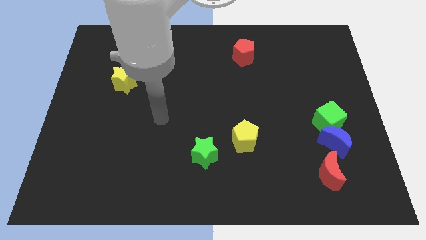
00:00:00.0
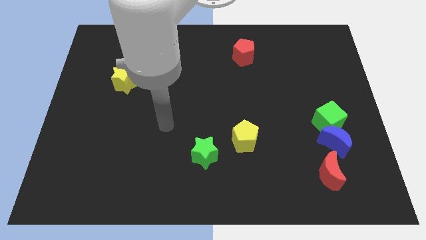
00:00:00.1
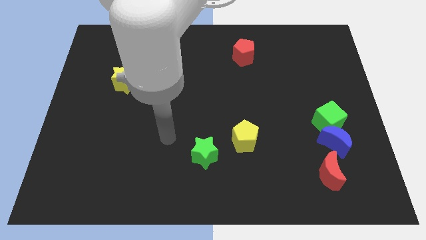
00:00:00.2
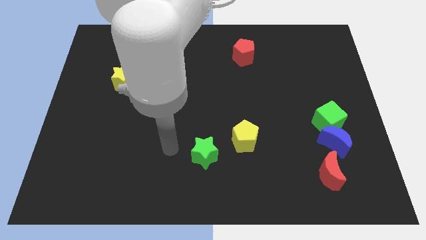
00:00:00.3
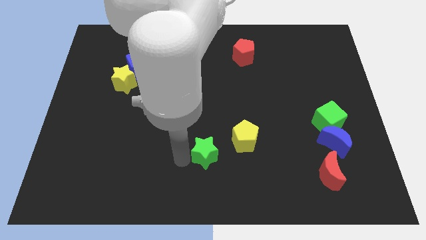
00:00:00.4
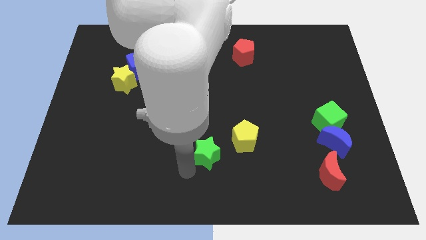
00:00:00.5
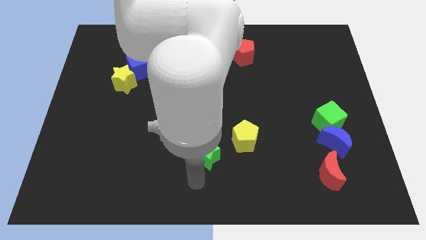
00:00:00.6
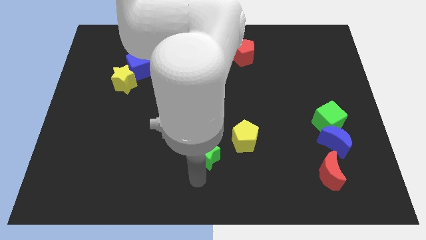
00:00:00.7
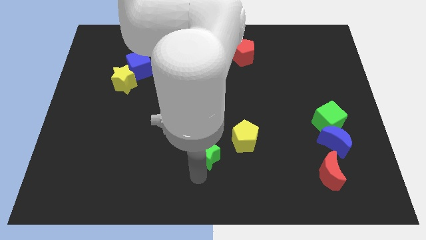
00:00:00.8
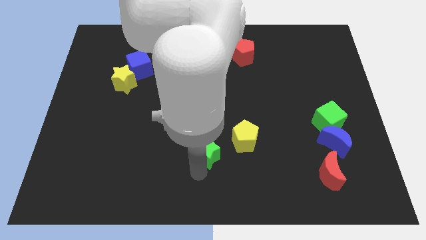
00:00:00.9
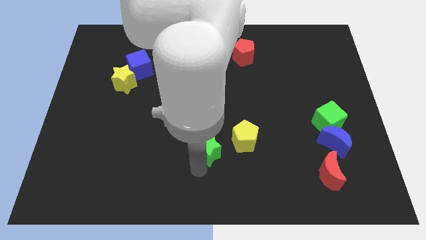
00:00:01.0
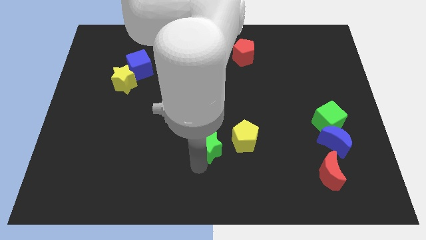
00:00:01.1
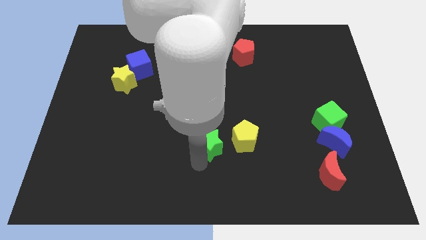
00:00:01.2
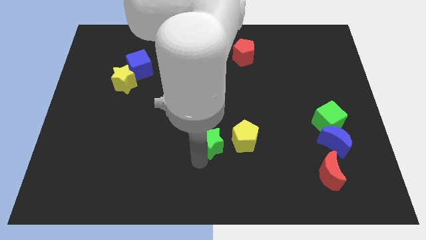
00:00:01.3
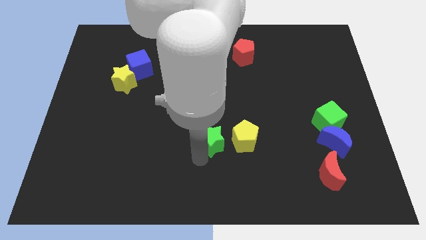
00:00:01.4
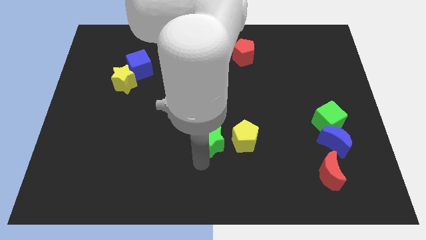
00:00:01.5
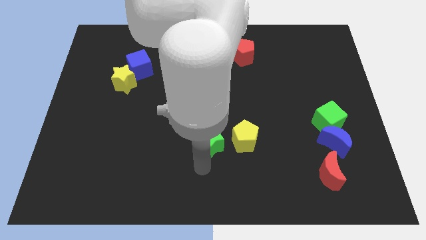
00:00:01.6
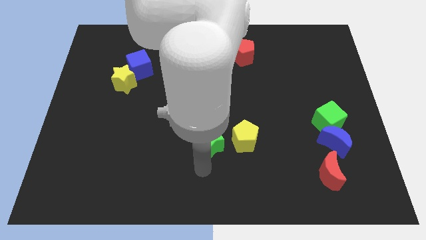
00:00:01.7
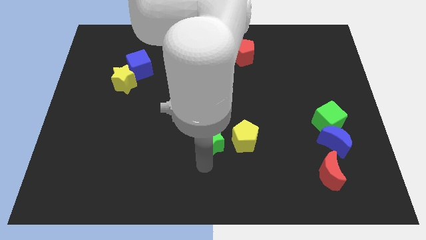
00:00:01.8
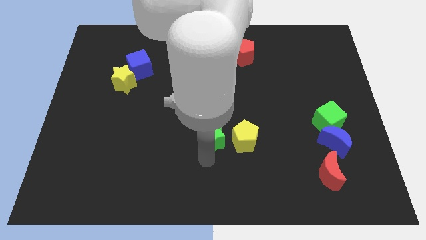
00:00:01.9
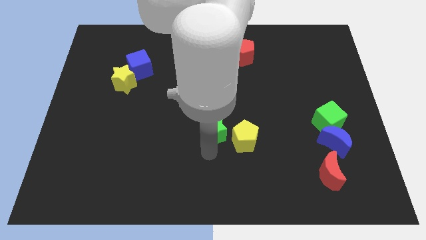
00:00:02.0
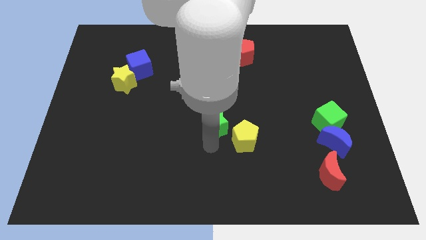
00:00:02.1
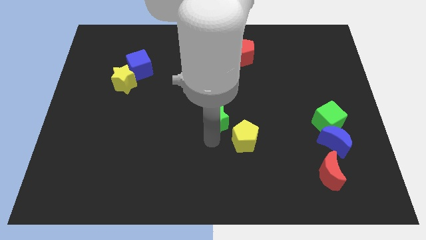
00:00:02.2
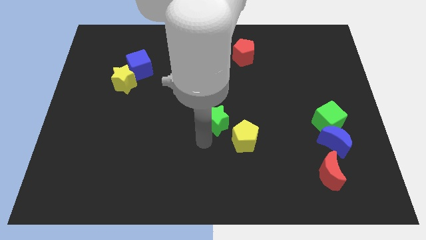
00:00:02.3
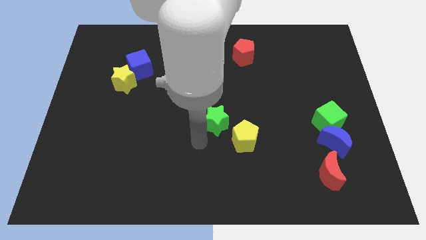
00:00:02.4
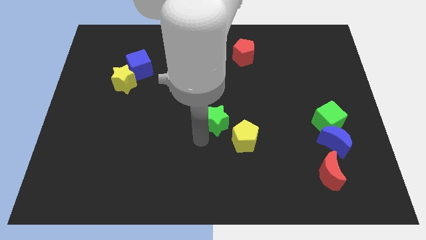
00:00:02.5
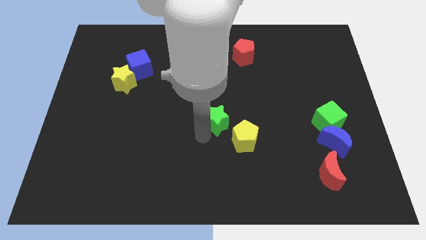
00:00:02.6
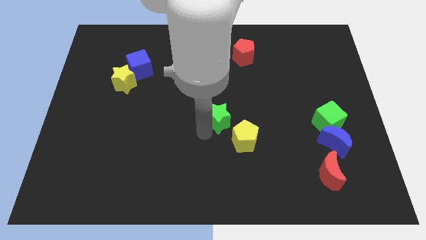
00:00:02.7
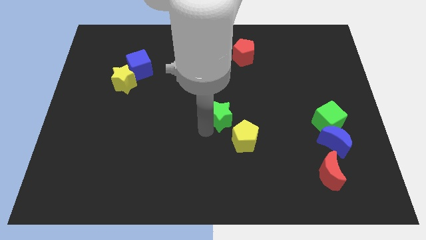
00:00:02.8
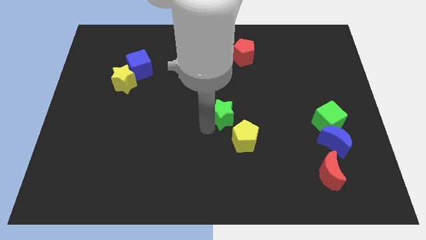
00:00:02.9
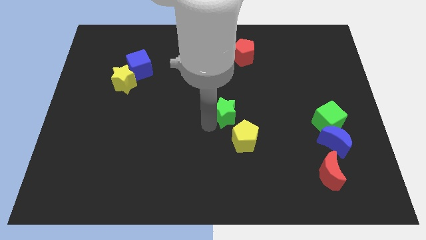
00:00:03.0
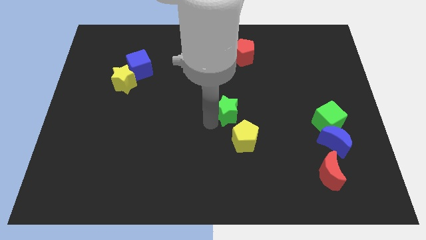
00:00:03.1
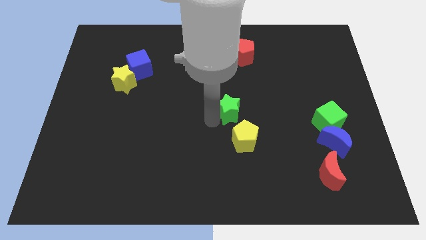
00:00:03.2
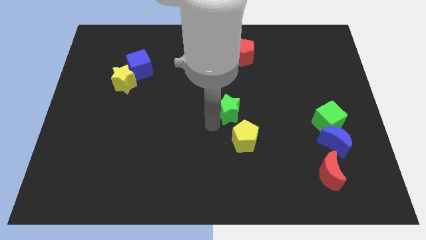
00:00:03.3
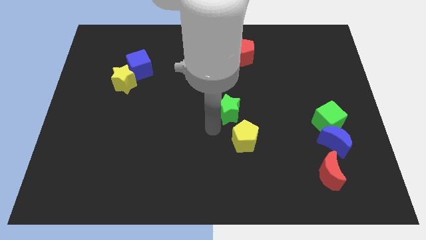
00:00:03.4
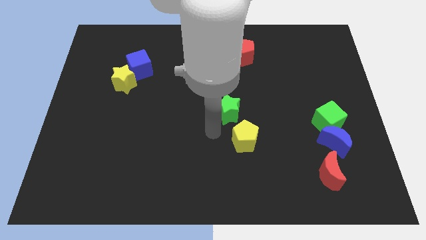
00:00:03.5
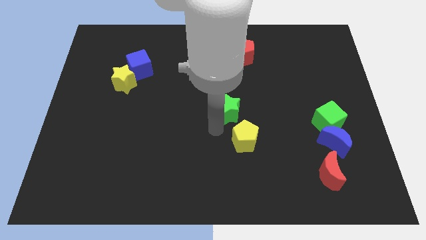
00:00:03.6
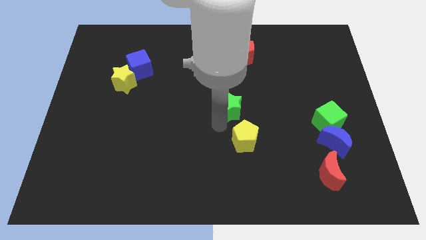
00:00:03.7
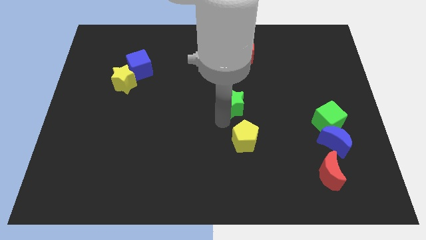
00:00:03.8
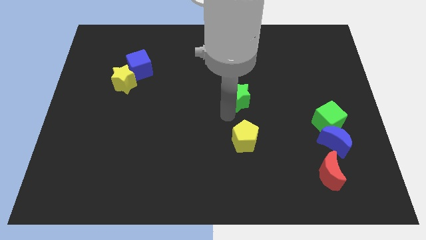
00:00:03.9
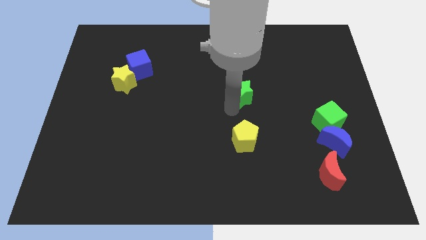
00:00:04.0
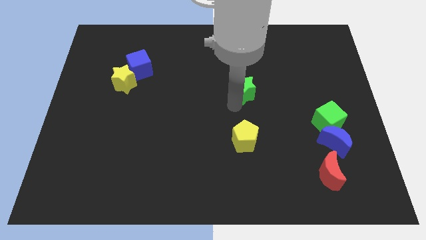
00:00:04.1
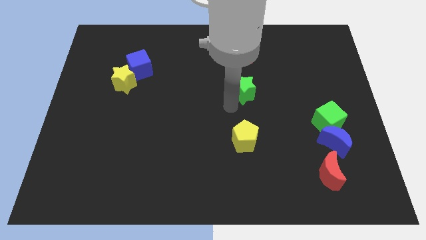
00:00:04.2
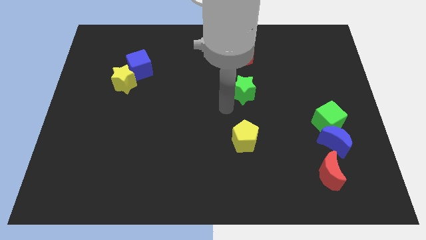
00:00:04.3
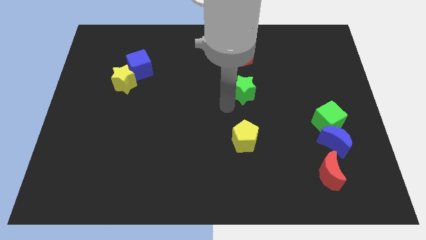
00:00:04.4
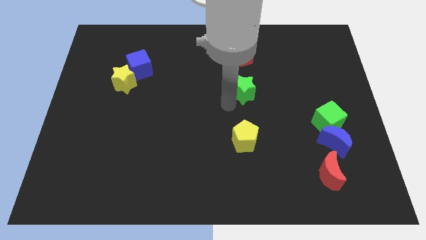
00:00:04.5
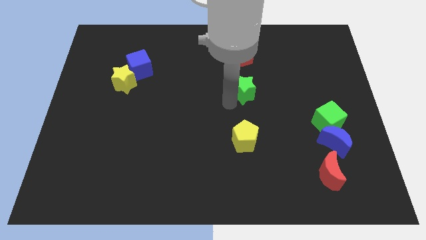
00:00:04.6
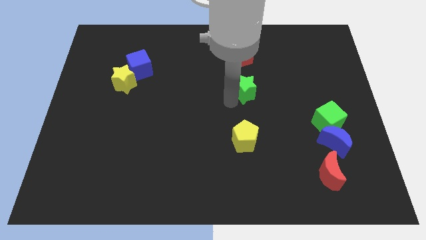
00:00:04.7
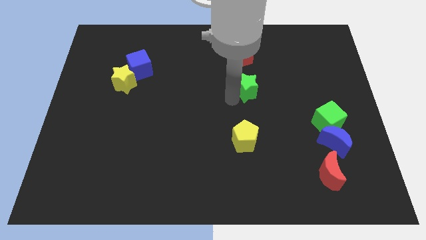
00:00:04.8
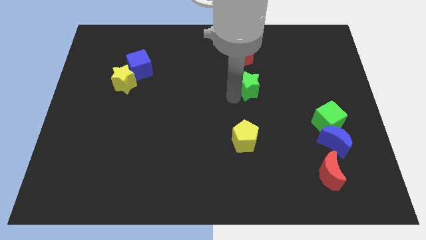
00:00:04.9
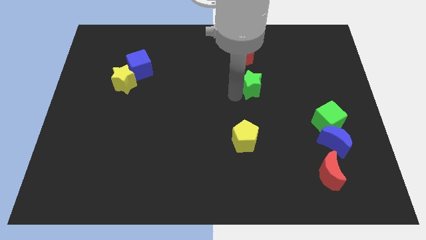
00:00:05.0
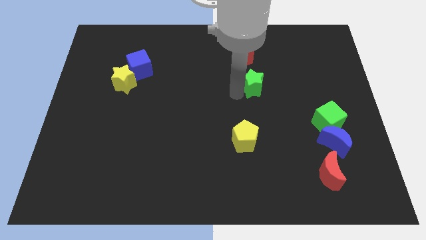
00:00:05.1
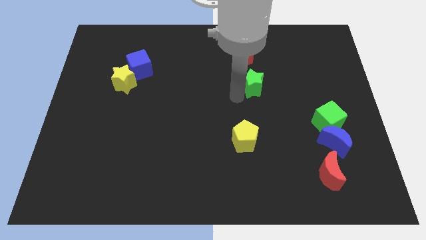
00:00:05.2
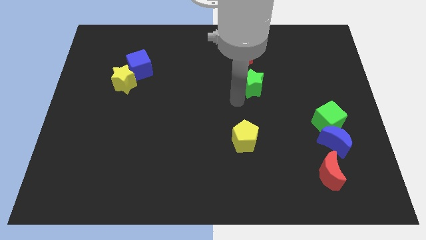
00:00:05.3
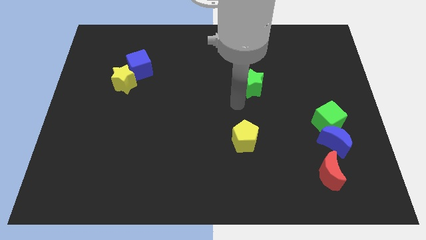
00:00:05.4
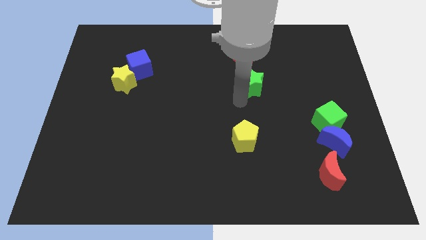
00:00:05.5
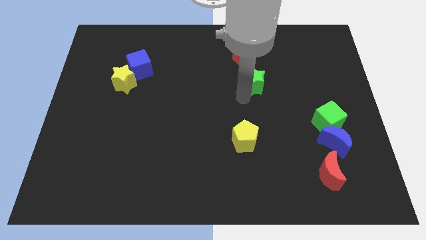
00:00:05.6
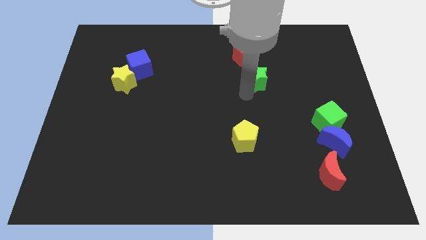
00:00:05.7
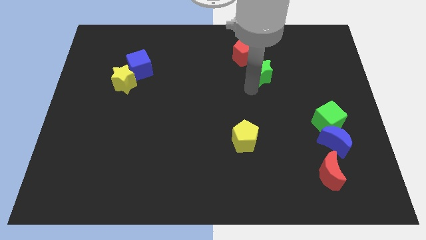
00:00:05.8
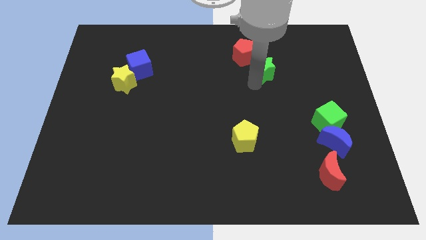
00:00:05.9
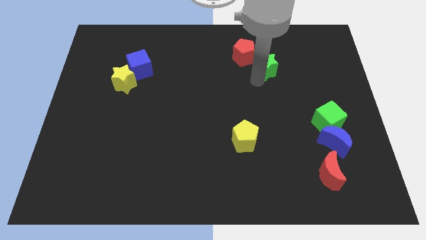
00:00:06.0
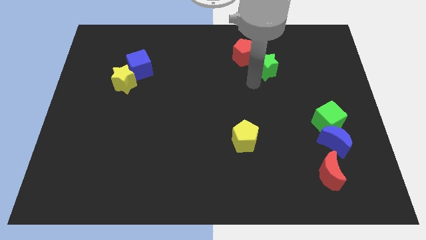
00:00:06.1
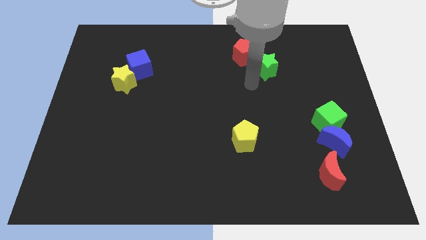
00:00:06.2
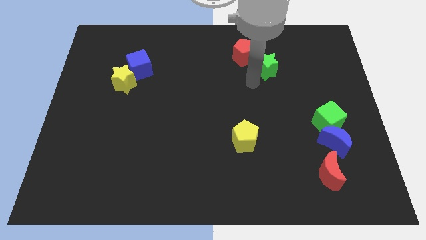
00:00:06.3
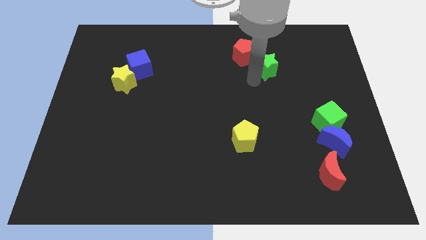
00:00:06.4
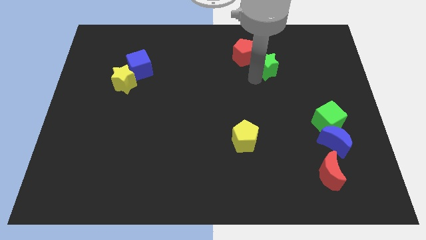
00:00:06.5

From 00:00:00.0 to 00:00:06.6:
slide the green star right of the red pentagon

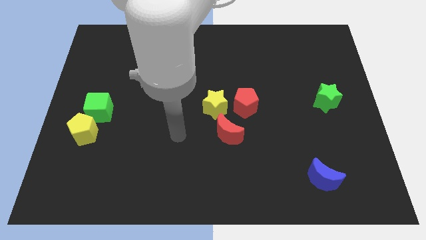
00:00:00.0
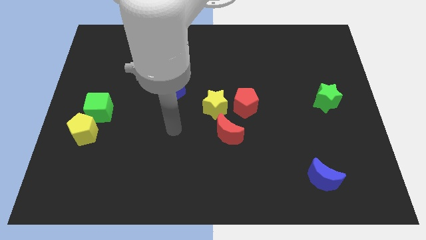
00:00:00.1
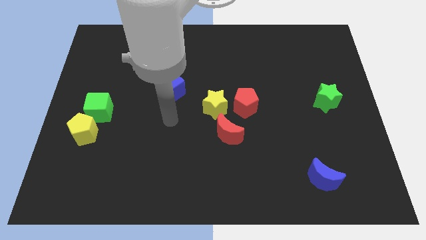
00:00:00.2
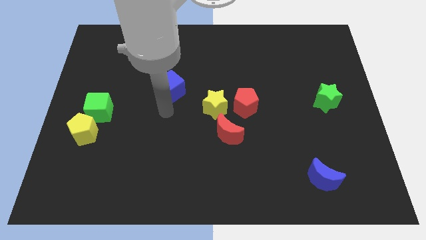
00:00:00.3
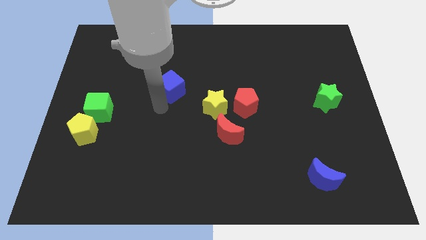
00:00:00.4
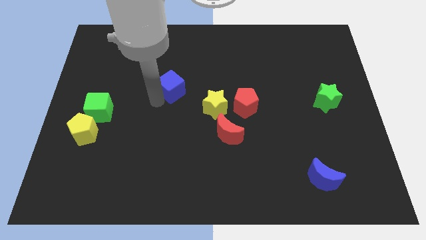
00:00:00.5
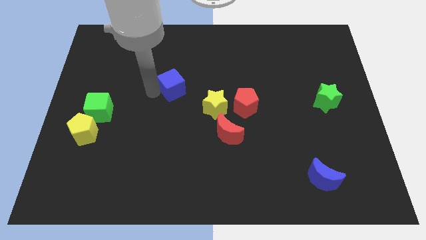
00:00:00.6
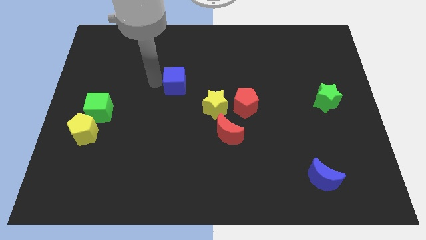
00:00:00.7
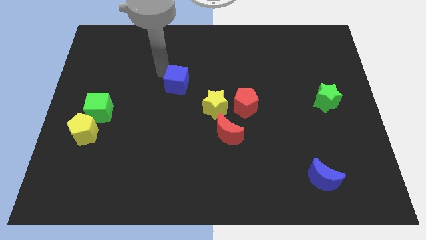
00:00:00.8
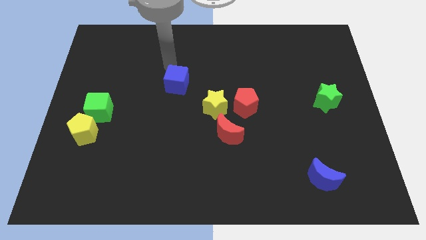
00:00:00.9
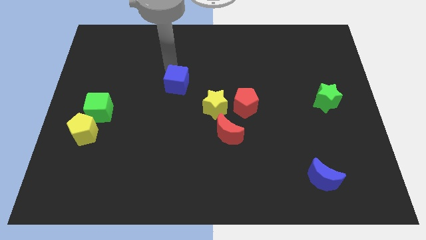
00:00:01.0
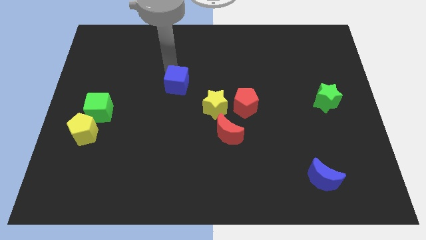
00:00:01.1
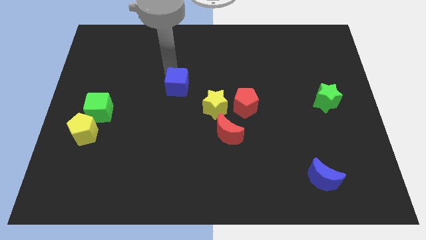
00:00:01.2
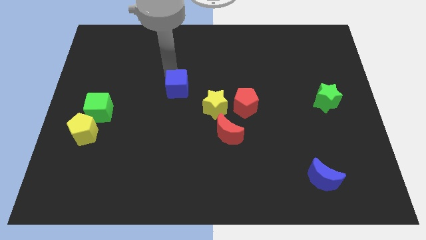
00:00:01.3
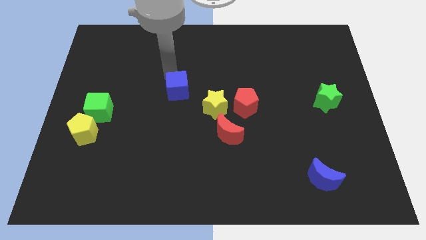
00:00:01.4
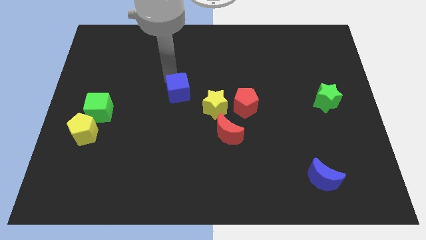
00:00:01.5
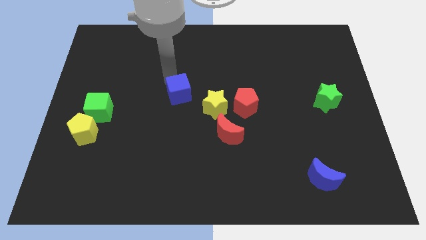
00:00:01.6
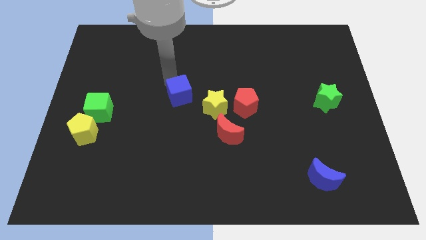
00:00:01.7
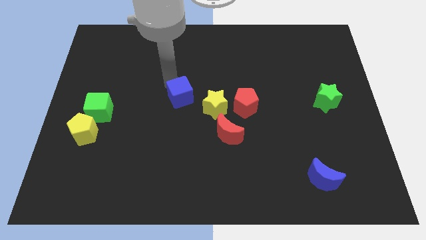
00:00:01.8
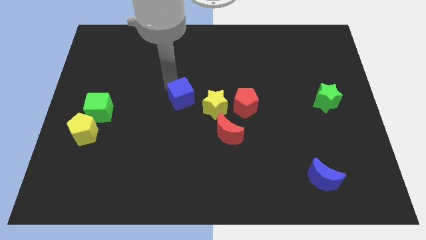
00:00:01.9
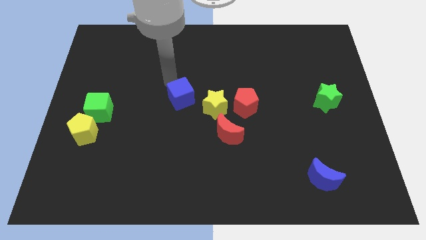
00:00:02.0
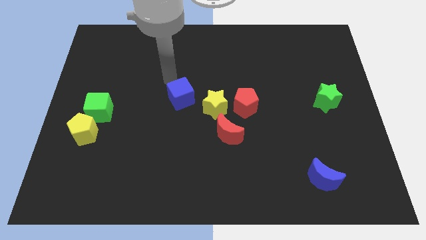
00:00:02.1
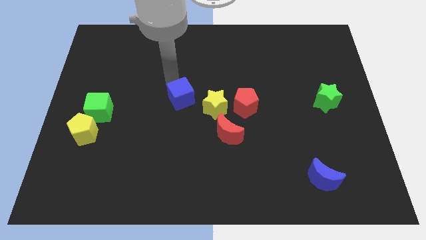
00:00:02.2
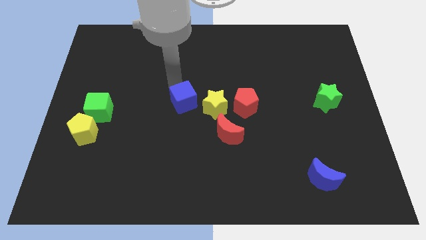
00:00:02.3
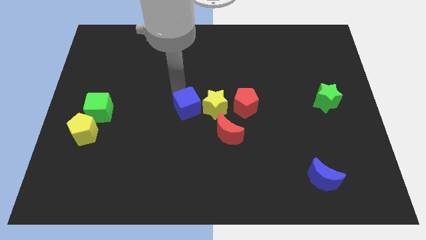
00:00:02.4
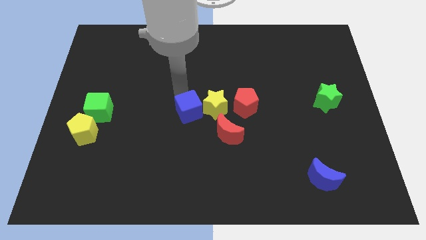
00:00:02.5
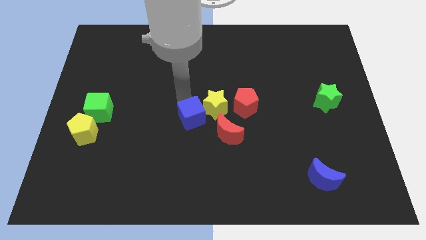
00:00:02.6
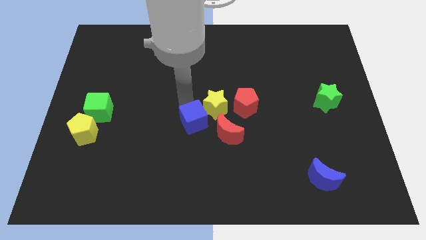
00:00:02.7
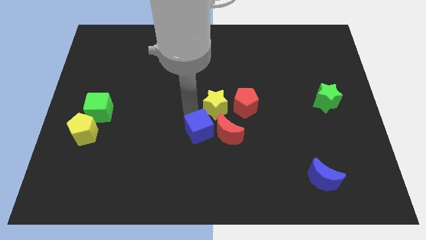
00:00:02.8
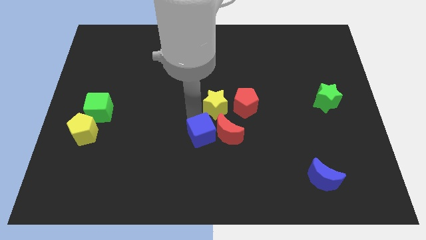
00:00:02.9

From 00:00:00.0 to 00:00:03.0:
move the blue cube to the bottom left side of the red moon
